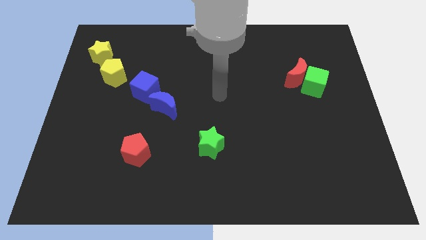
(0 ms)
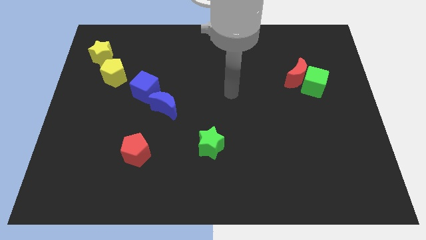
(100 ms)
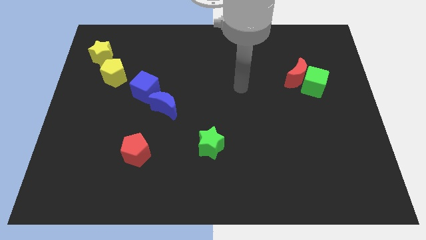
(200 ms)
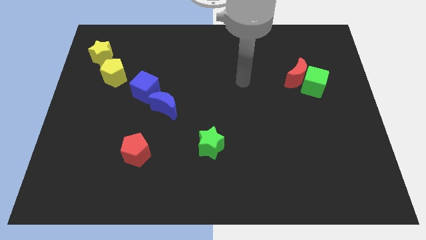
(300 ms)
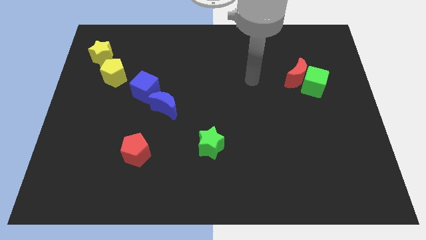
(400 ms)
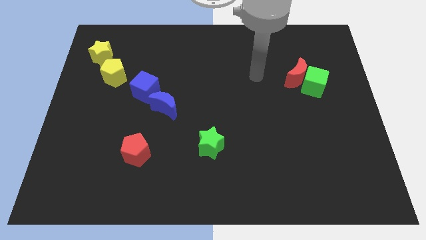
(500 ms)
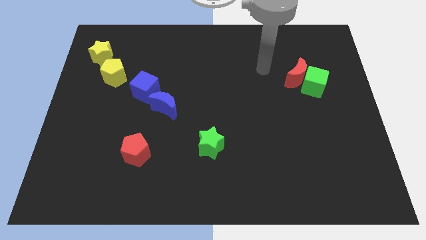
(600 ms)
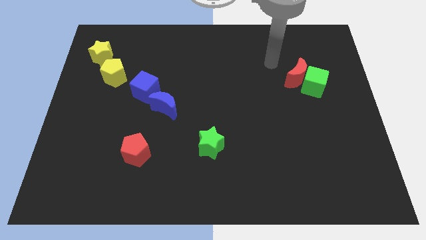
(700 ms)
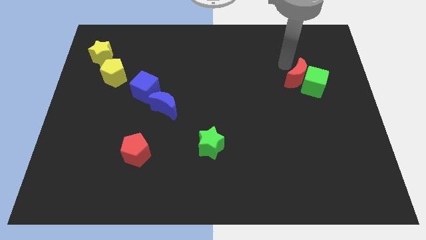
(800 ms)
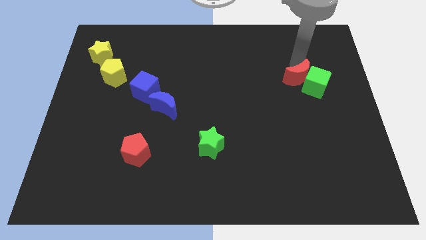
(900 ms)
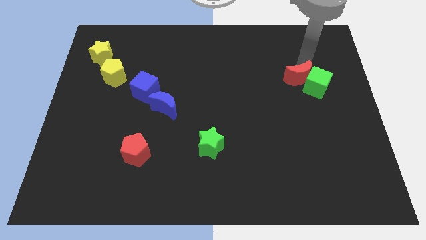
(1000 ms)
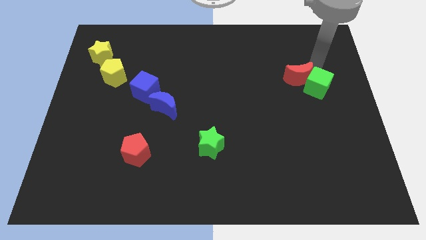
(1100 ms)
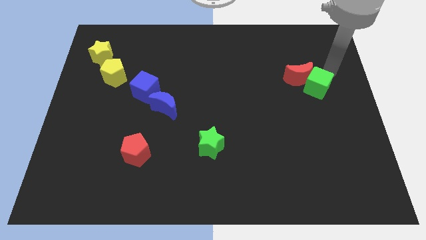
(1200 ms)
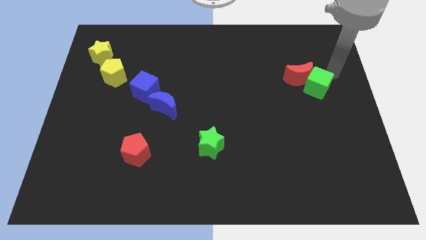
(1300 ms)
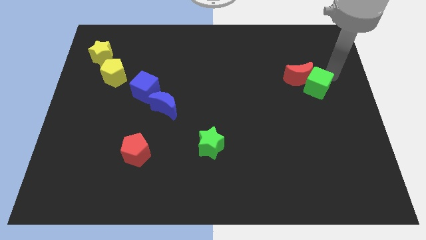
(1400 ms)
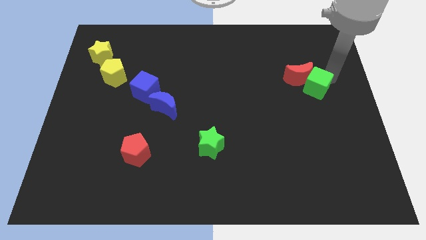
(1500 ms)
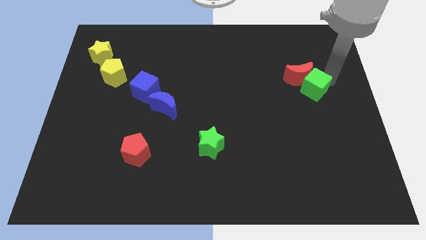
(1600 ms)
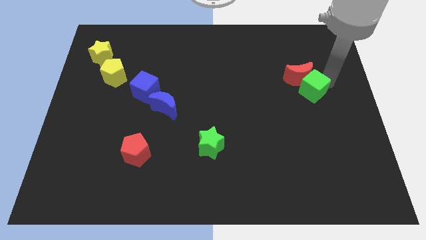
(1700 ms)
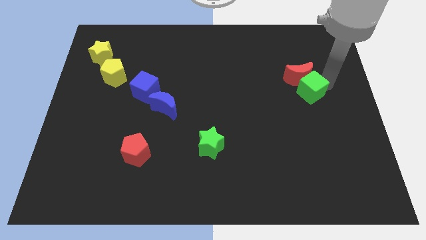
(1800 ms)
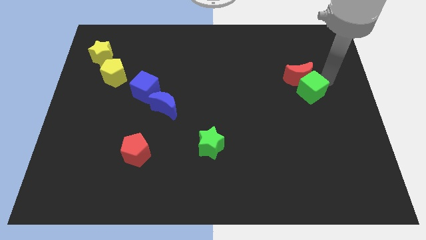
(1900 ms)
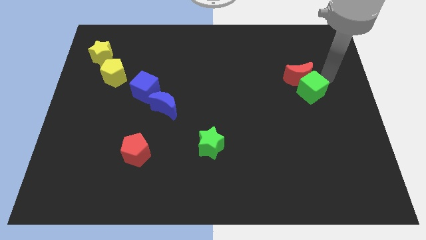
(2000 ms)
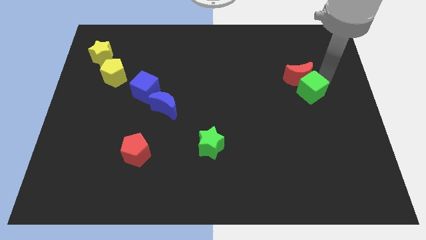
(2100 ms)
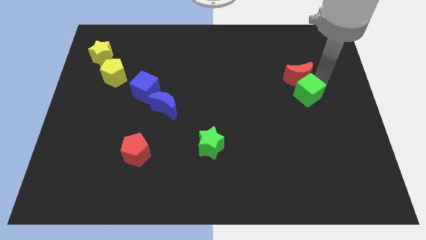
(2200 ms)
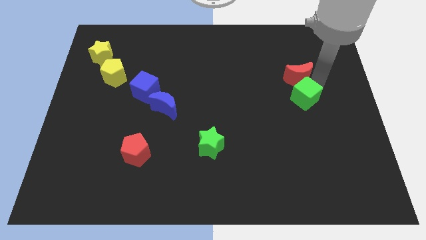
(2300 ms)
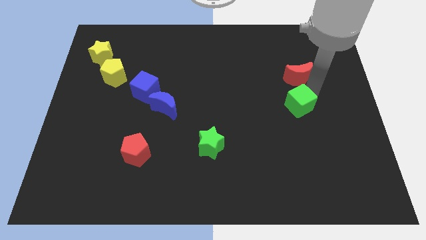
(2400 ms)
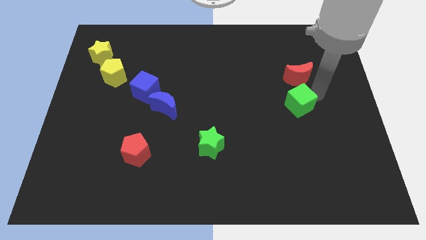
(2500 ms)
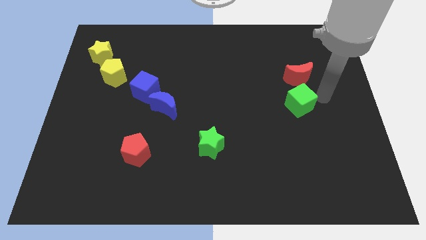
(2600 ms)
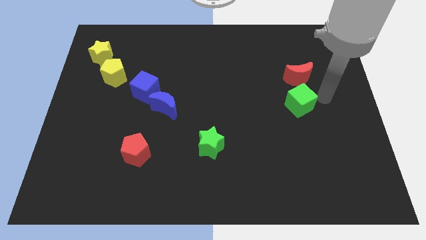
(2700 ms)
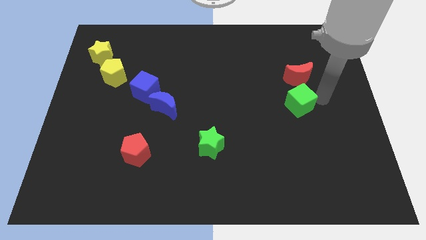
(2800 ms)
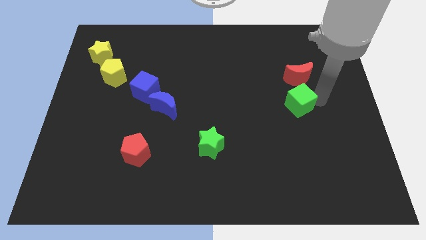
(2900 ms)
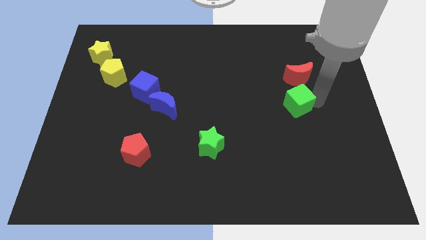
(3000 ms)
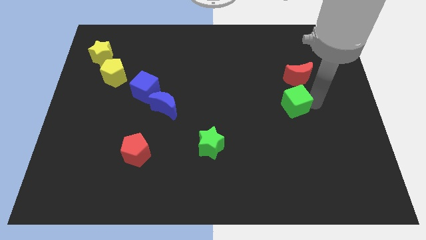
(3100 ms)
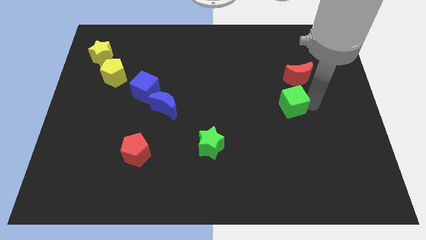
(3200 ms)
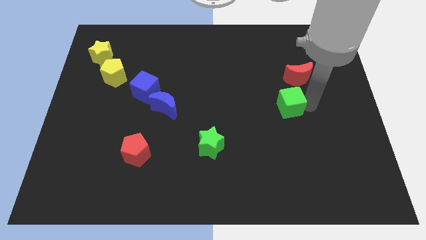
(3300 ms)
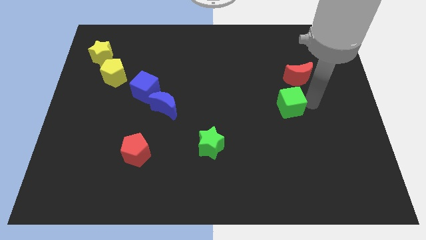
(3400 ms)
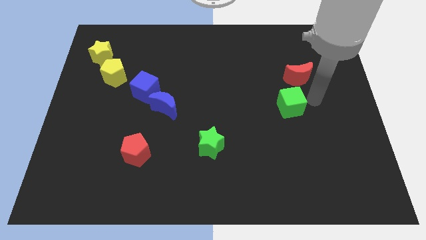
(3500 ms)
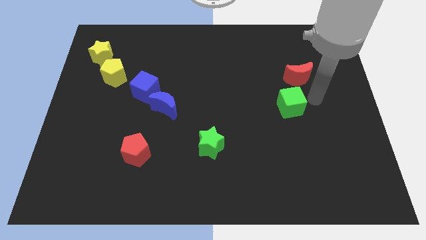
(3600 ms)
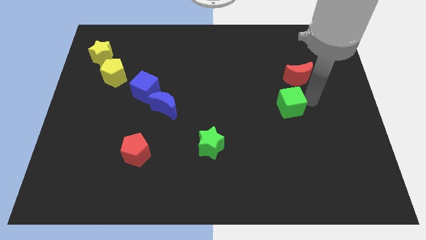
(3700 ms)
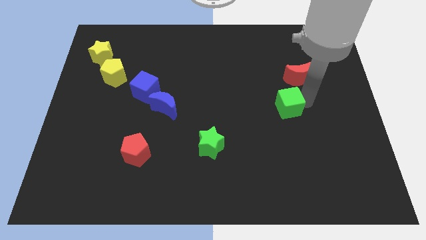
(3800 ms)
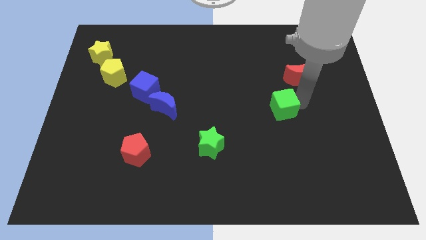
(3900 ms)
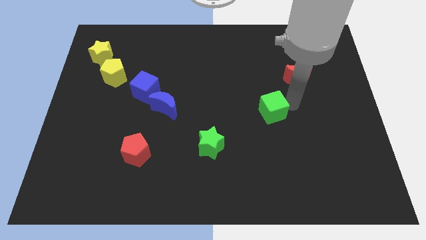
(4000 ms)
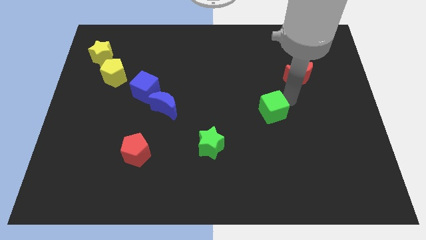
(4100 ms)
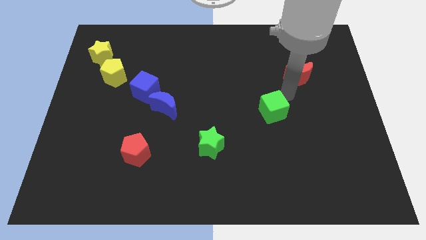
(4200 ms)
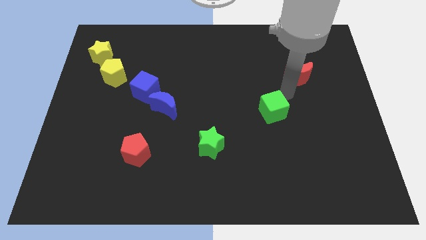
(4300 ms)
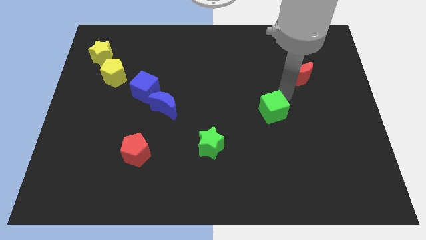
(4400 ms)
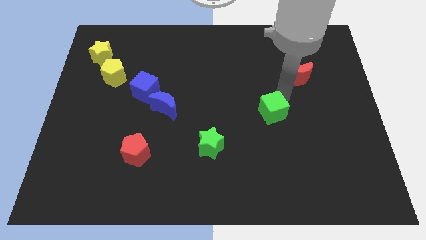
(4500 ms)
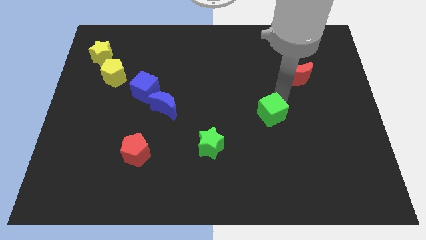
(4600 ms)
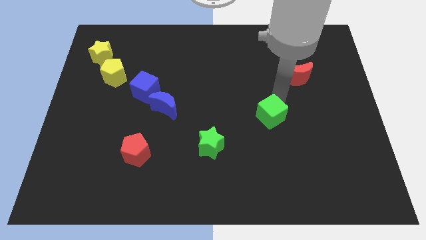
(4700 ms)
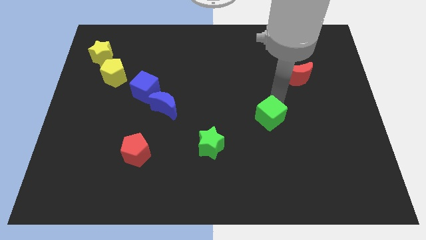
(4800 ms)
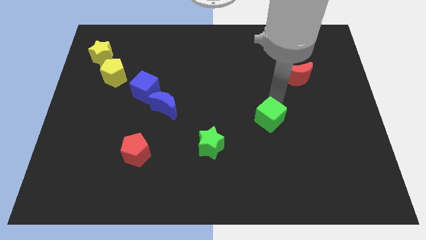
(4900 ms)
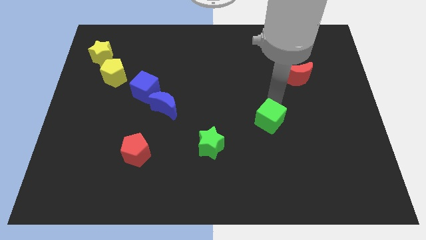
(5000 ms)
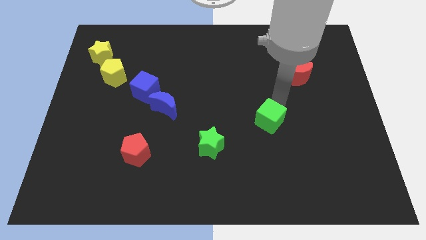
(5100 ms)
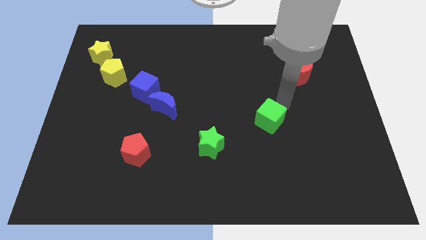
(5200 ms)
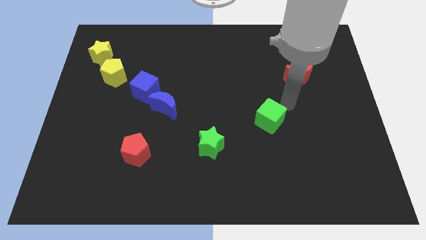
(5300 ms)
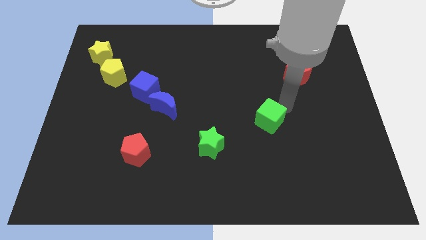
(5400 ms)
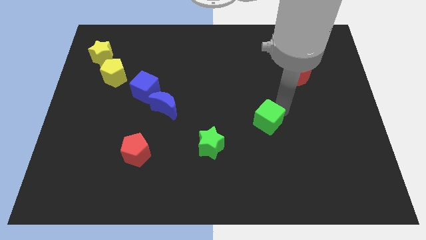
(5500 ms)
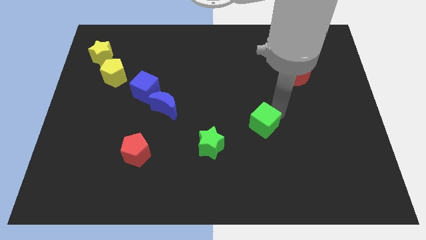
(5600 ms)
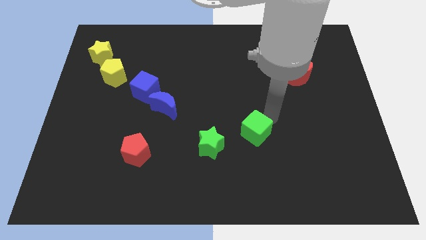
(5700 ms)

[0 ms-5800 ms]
slide the green cube downwards and then left

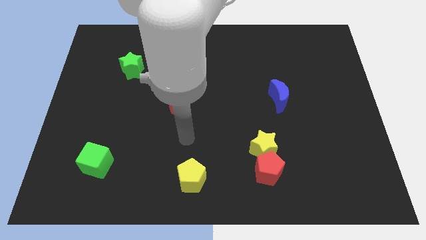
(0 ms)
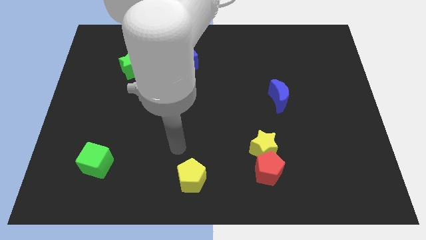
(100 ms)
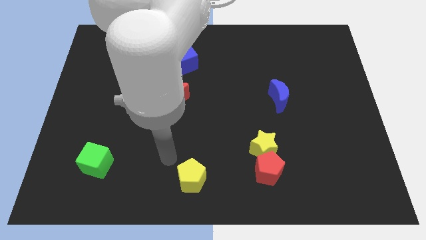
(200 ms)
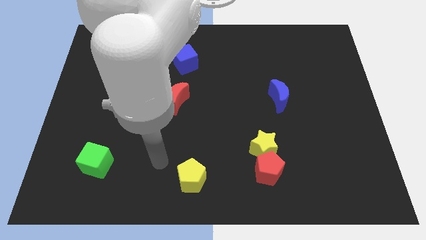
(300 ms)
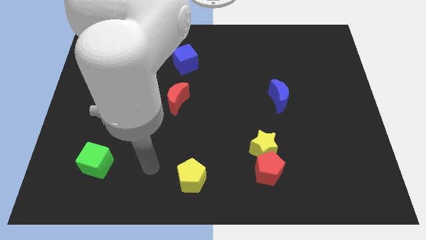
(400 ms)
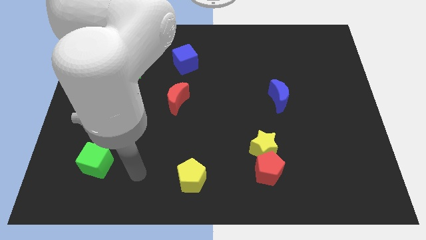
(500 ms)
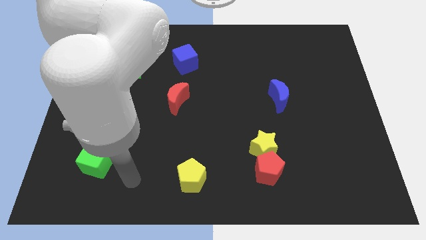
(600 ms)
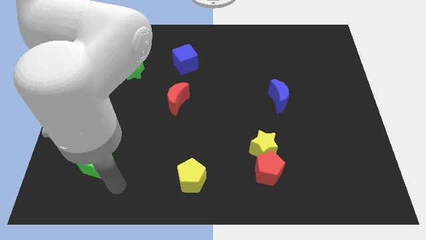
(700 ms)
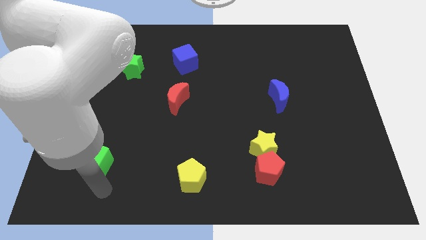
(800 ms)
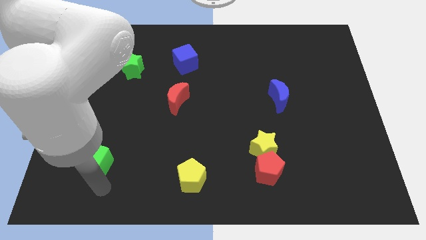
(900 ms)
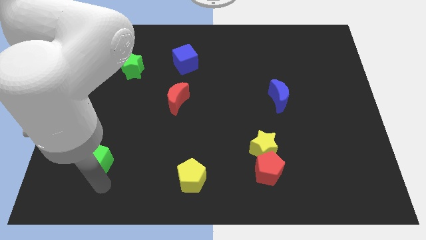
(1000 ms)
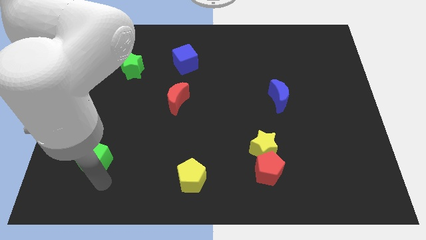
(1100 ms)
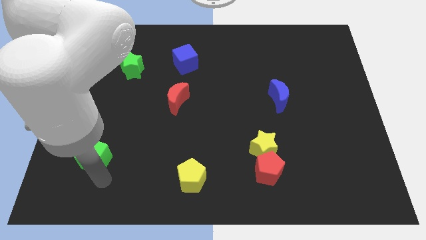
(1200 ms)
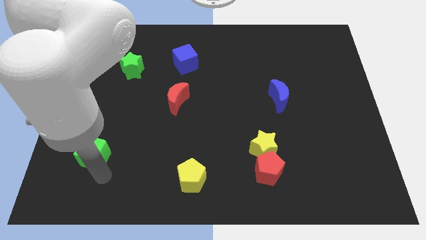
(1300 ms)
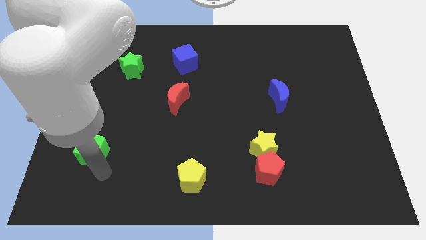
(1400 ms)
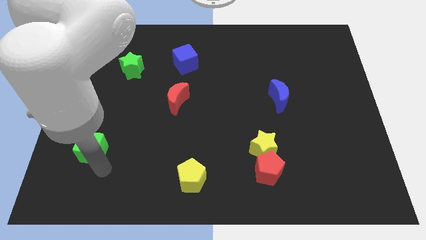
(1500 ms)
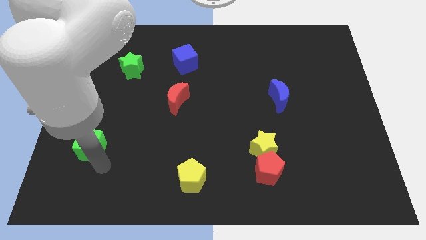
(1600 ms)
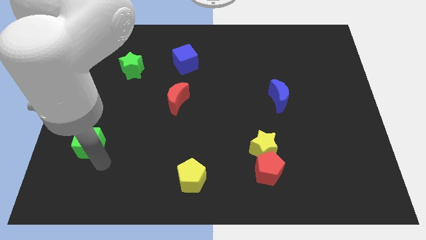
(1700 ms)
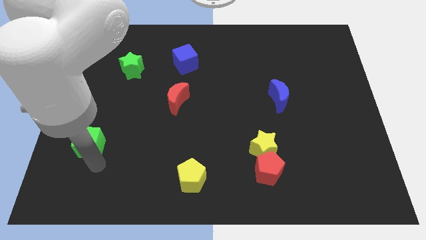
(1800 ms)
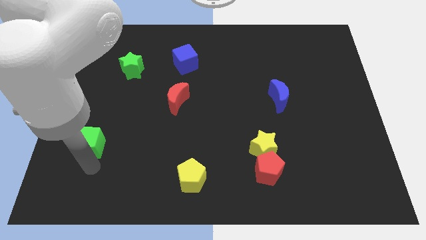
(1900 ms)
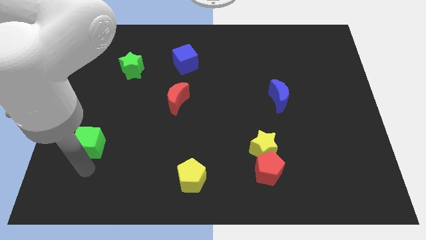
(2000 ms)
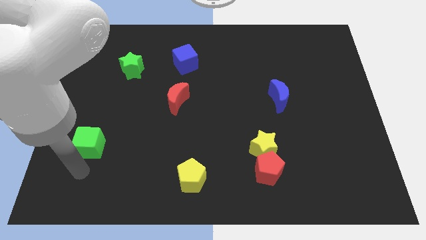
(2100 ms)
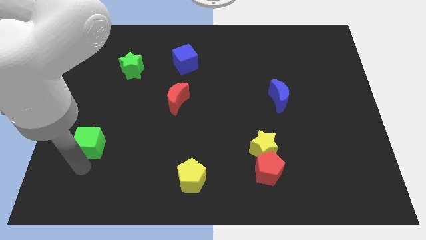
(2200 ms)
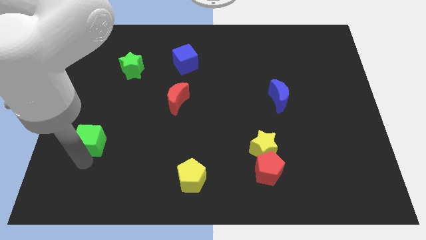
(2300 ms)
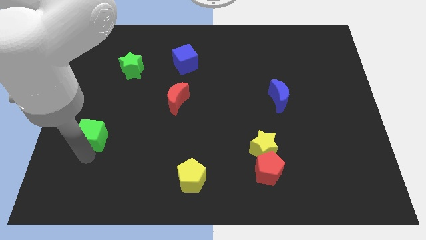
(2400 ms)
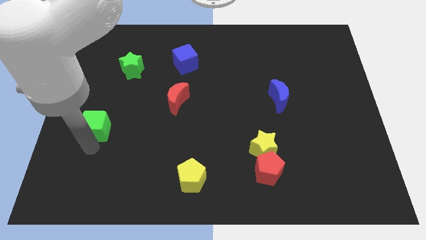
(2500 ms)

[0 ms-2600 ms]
slightly slide the green cube up
